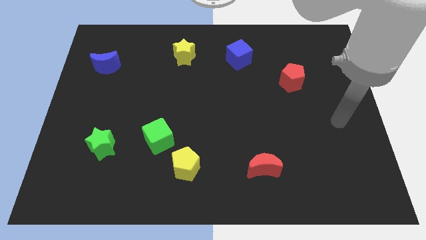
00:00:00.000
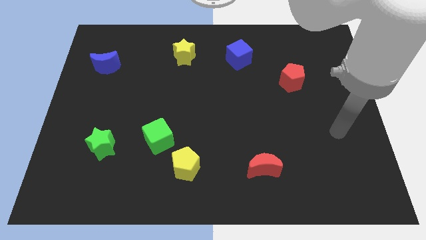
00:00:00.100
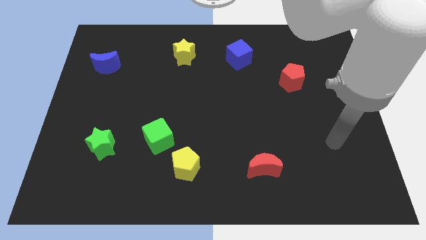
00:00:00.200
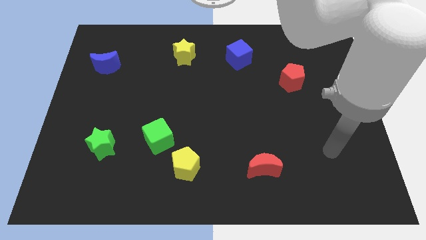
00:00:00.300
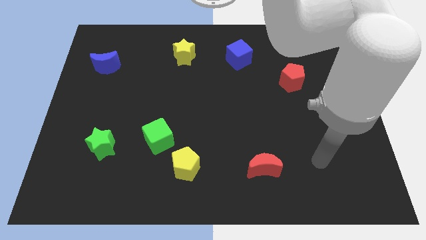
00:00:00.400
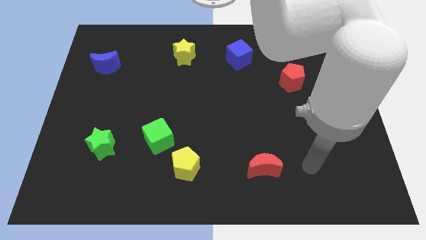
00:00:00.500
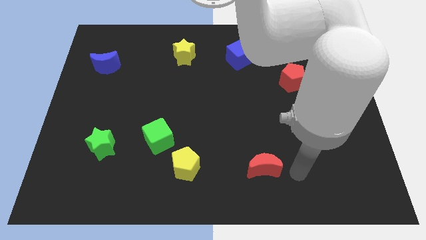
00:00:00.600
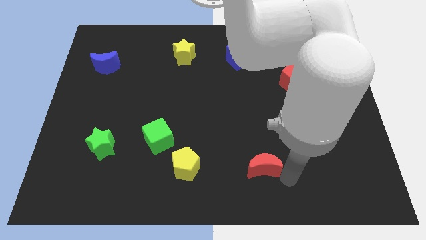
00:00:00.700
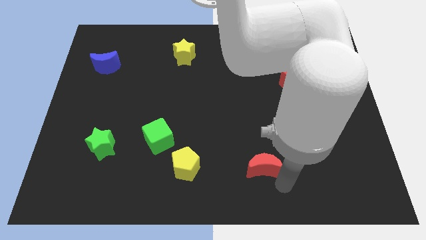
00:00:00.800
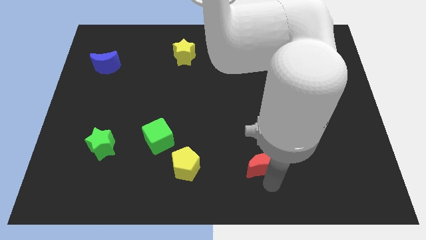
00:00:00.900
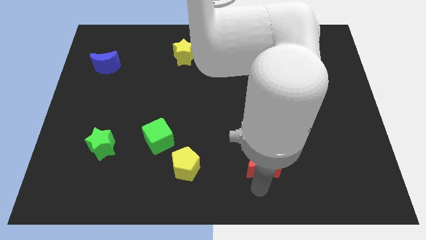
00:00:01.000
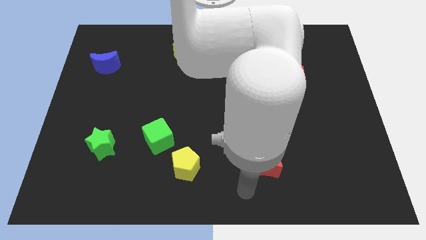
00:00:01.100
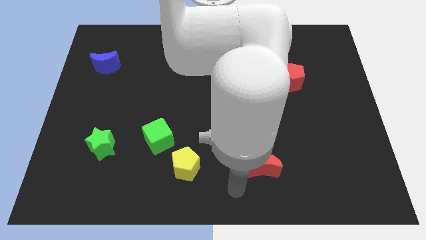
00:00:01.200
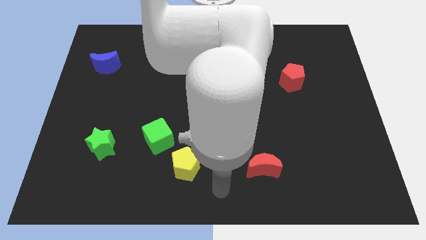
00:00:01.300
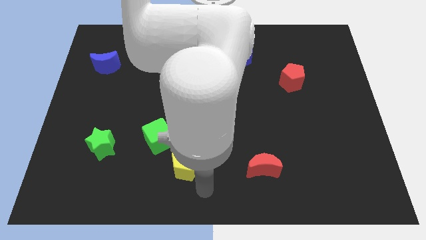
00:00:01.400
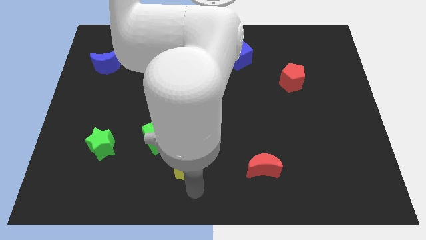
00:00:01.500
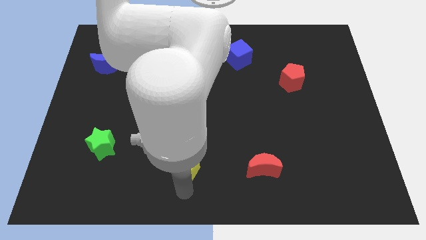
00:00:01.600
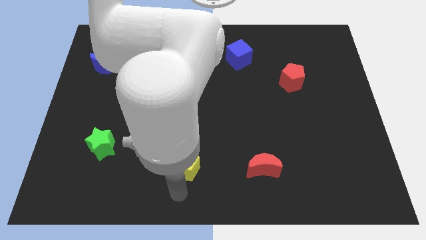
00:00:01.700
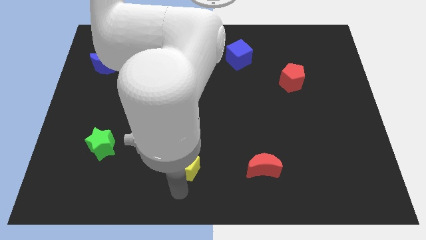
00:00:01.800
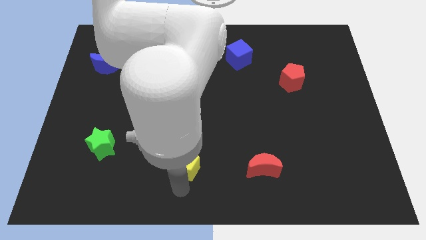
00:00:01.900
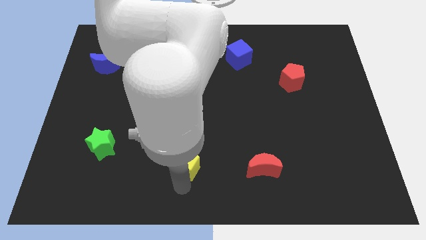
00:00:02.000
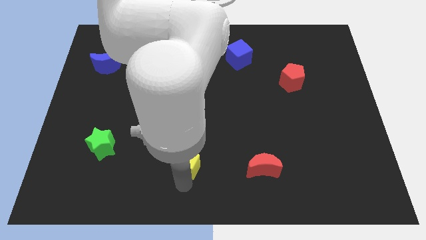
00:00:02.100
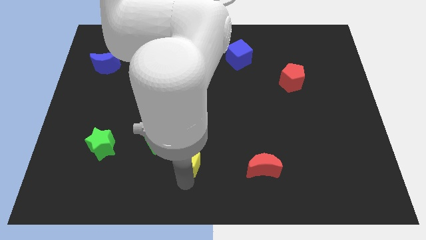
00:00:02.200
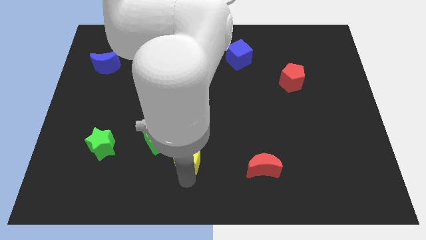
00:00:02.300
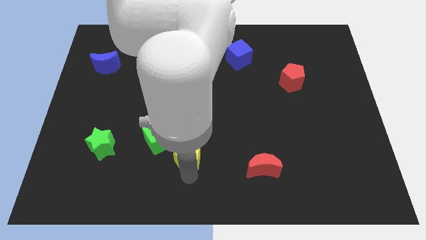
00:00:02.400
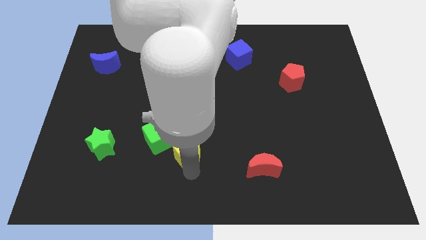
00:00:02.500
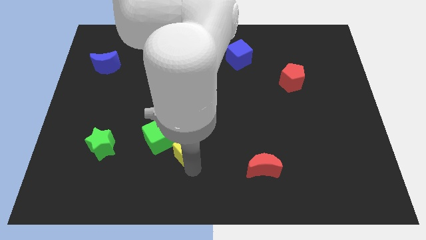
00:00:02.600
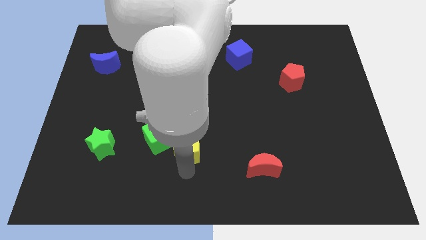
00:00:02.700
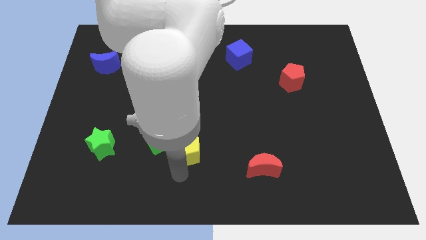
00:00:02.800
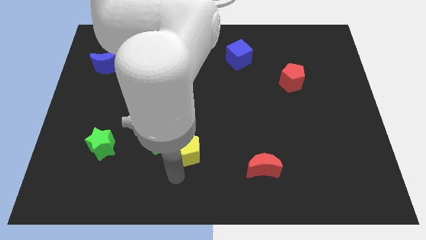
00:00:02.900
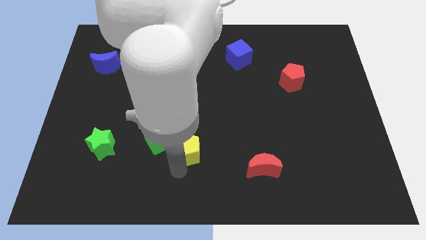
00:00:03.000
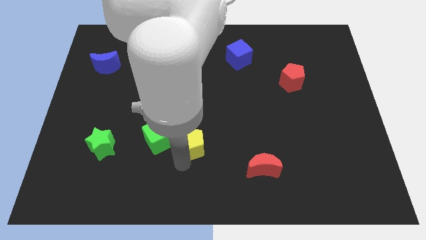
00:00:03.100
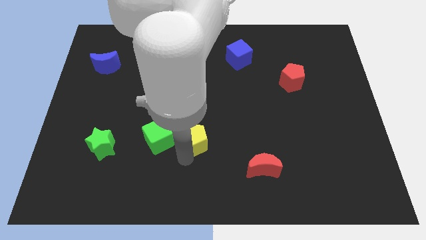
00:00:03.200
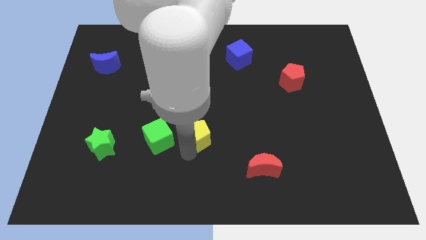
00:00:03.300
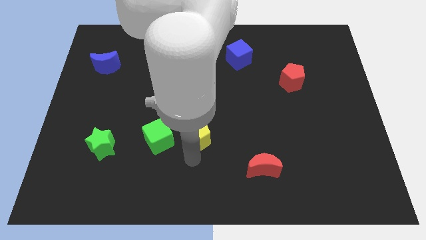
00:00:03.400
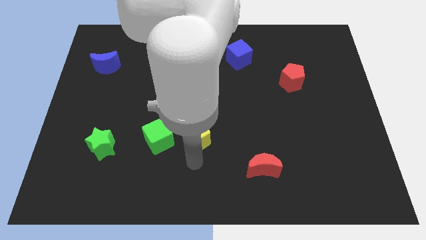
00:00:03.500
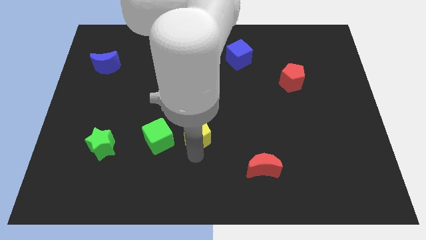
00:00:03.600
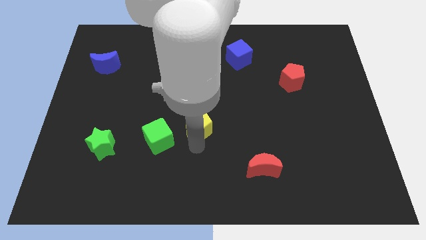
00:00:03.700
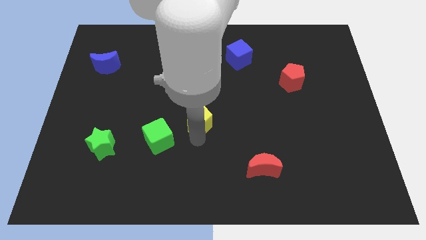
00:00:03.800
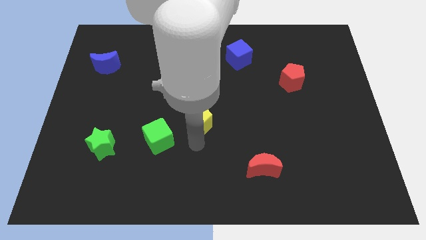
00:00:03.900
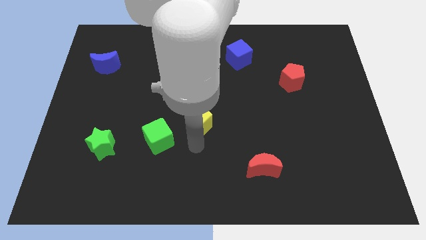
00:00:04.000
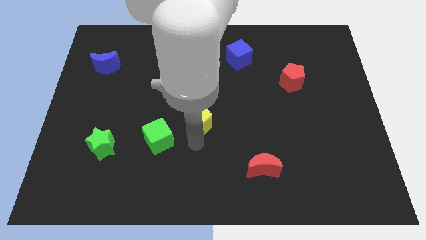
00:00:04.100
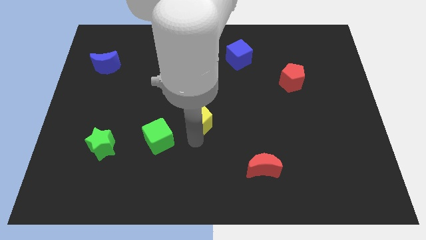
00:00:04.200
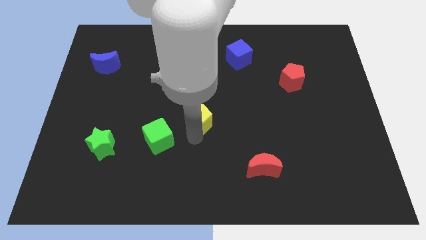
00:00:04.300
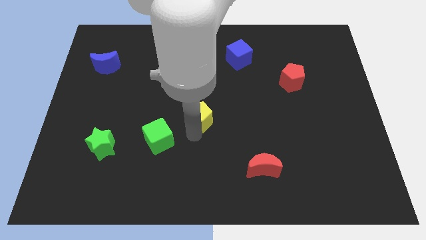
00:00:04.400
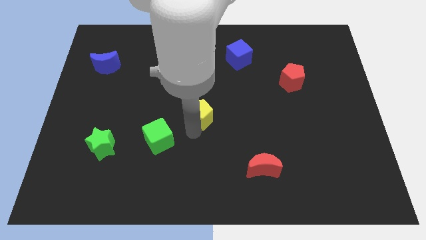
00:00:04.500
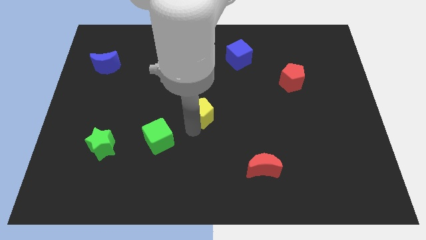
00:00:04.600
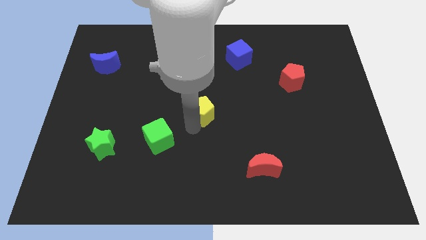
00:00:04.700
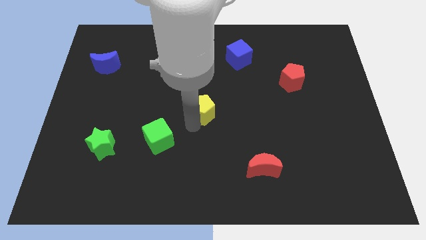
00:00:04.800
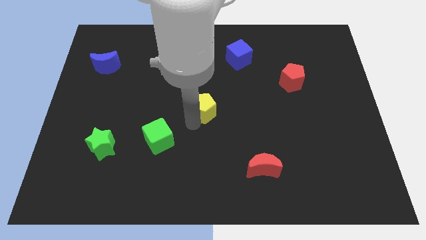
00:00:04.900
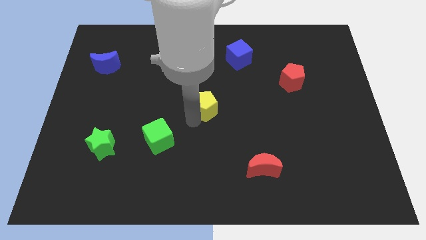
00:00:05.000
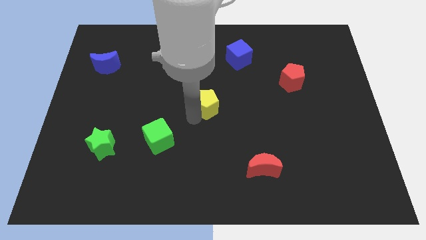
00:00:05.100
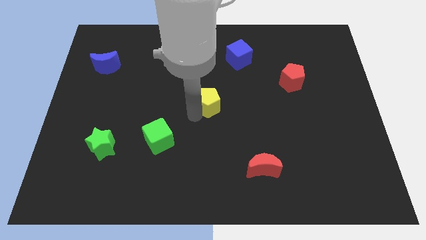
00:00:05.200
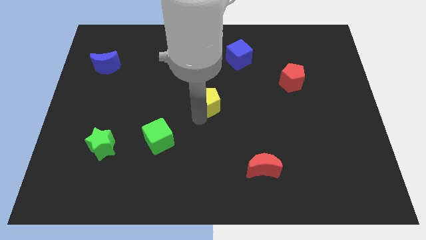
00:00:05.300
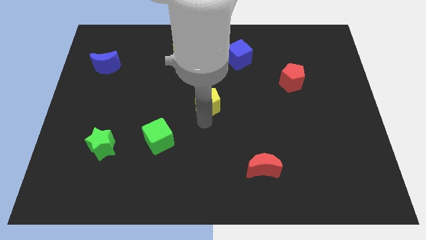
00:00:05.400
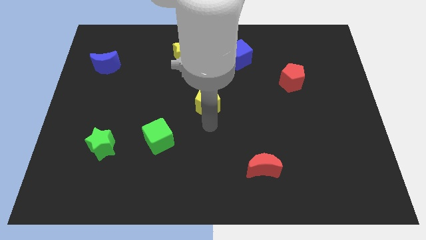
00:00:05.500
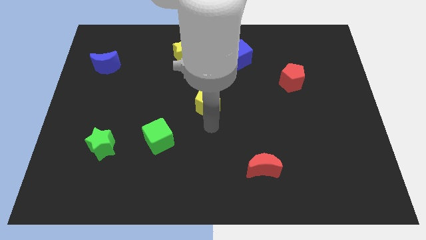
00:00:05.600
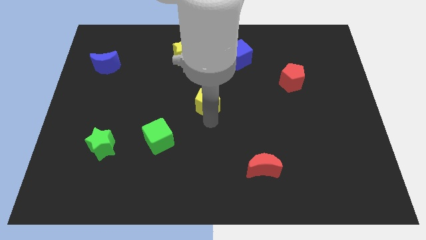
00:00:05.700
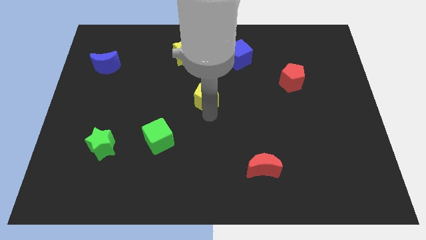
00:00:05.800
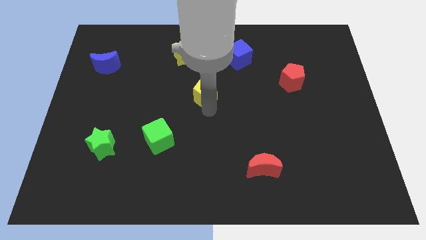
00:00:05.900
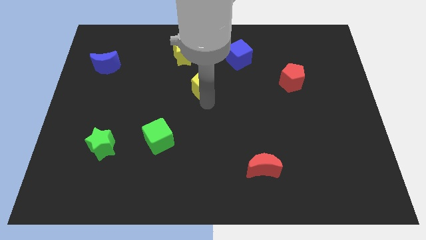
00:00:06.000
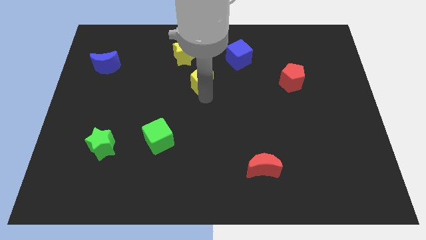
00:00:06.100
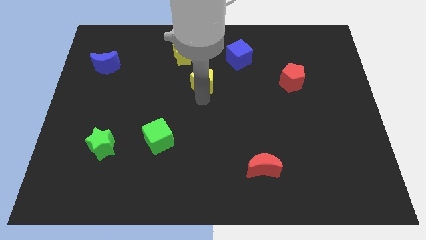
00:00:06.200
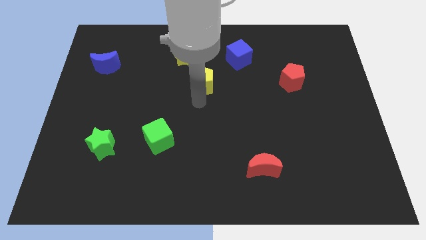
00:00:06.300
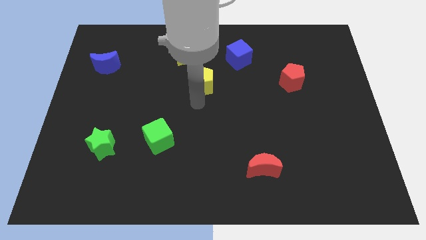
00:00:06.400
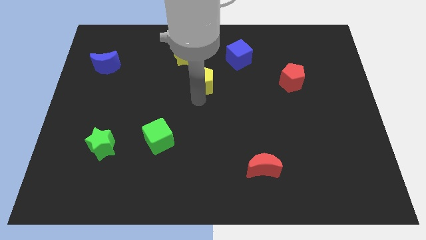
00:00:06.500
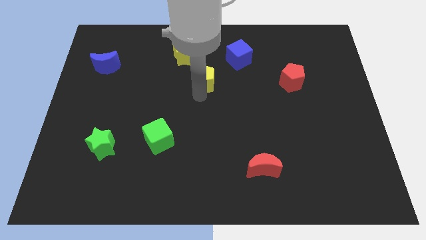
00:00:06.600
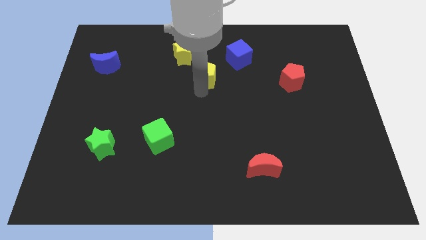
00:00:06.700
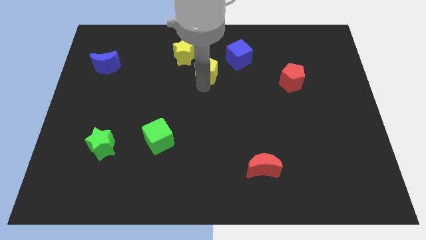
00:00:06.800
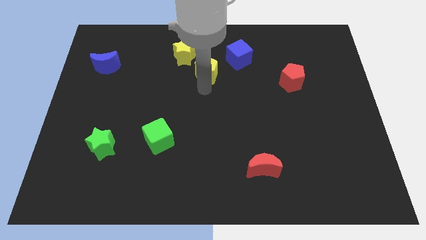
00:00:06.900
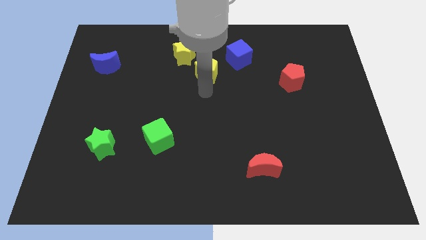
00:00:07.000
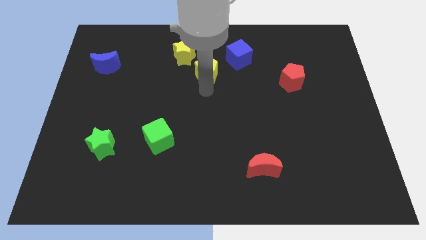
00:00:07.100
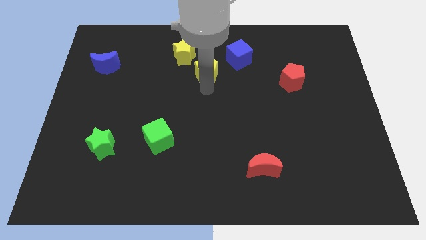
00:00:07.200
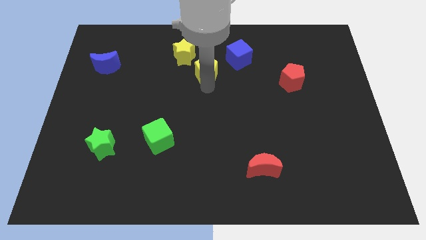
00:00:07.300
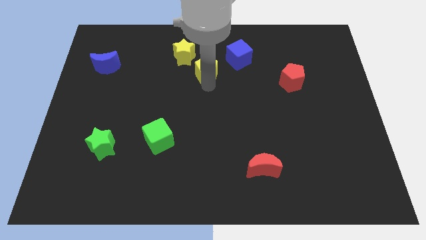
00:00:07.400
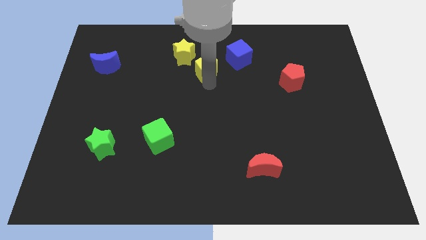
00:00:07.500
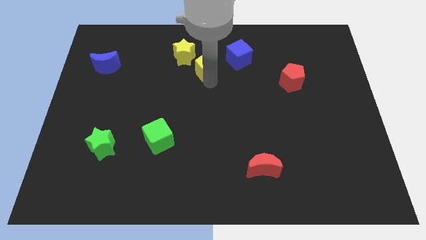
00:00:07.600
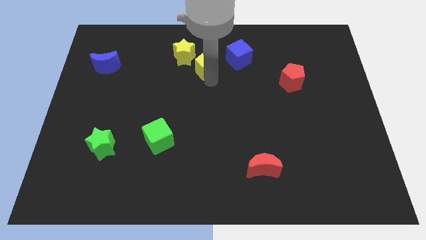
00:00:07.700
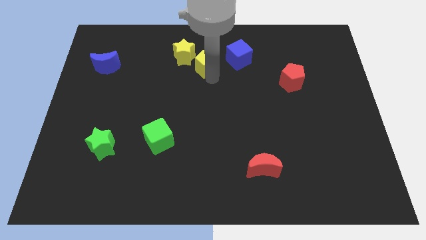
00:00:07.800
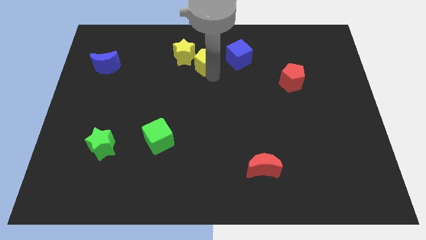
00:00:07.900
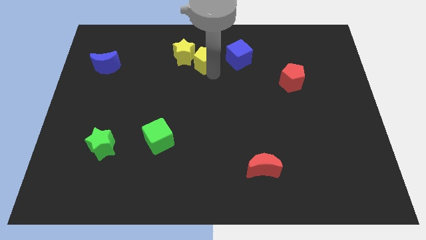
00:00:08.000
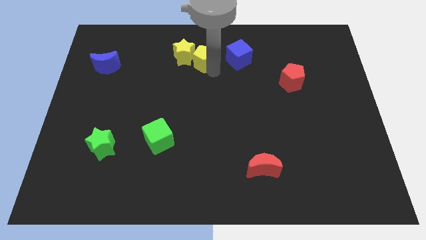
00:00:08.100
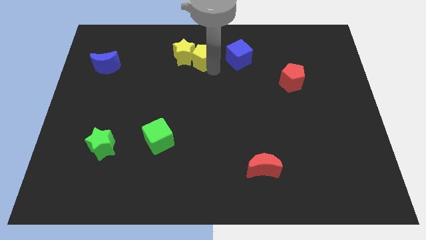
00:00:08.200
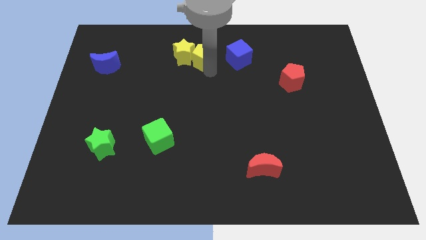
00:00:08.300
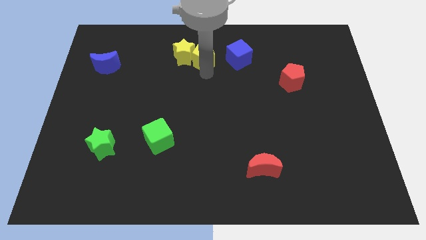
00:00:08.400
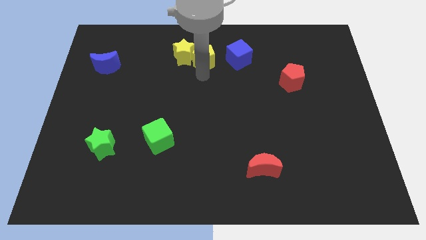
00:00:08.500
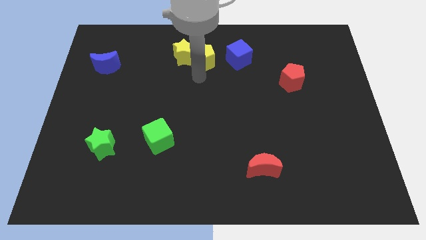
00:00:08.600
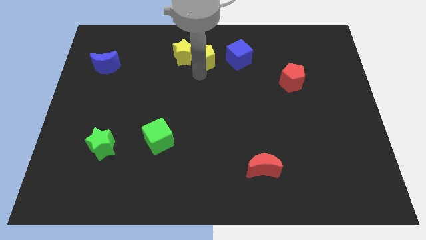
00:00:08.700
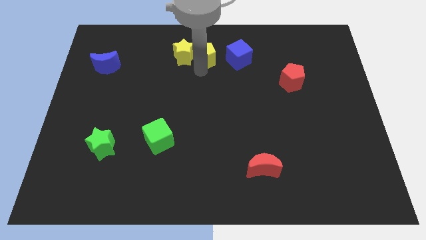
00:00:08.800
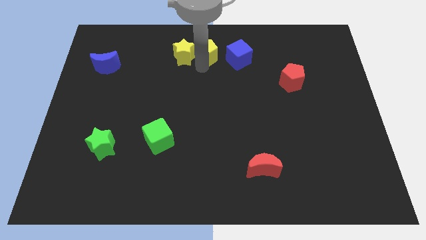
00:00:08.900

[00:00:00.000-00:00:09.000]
put the yellow pentagon to the top side
